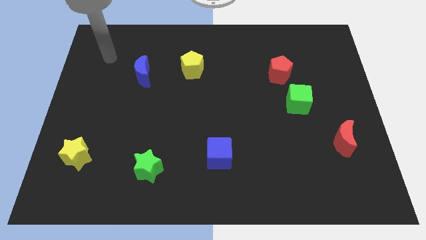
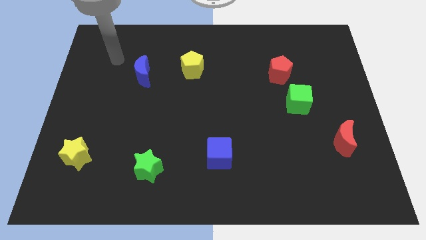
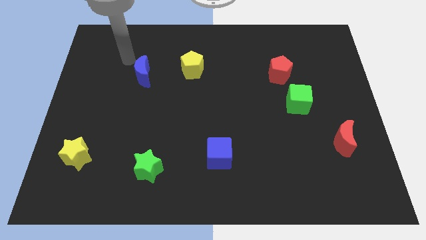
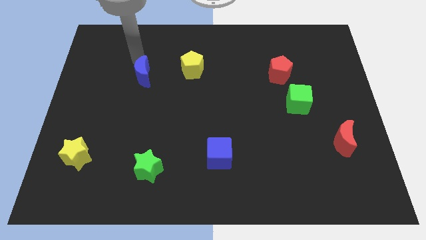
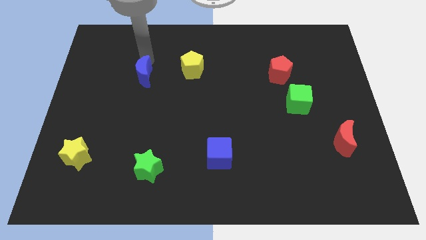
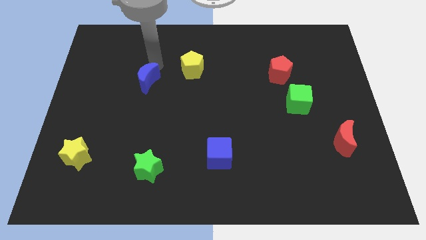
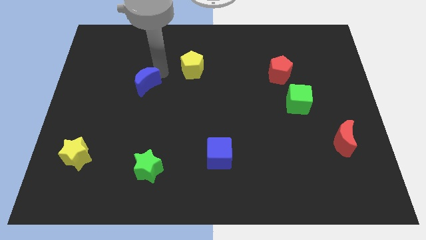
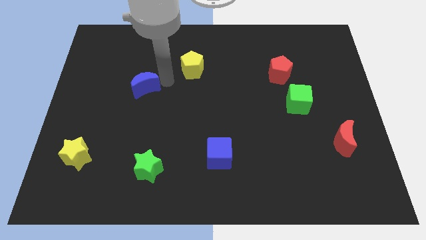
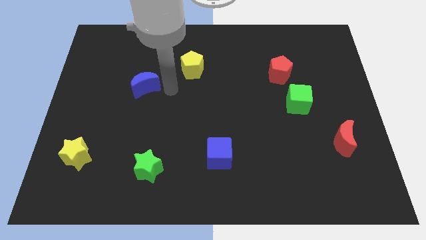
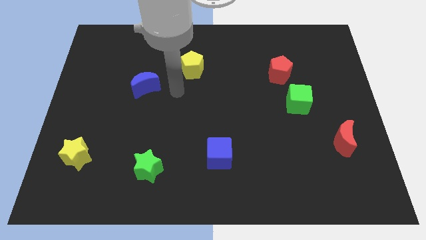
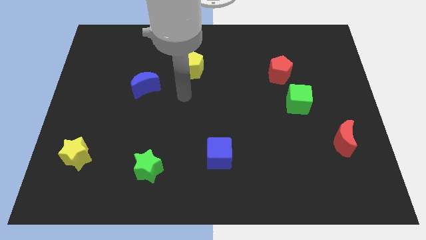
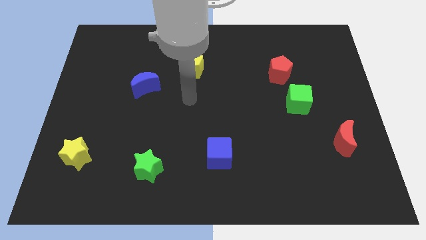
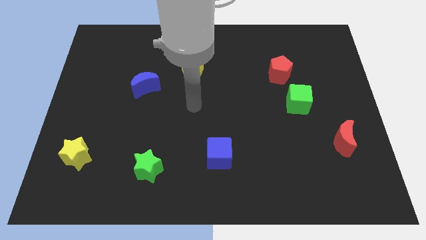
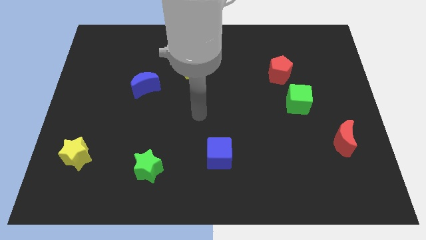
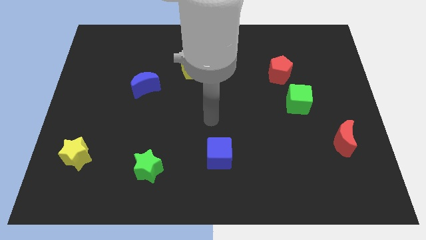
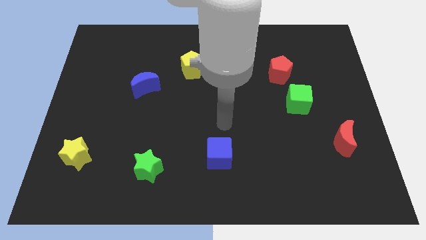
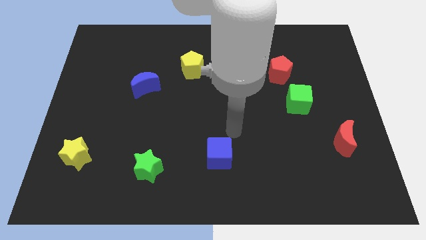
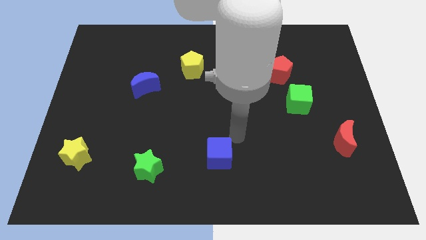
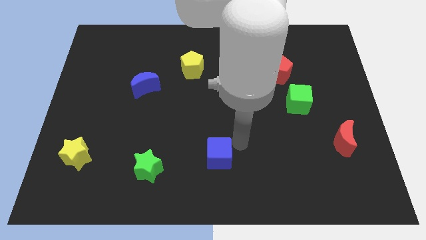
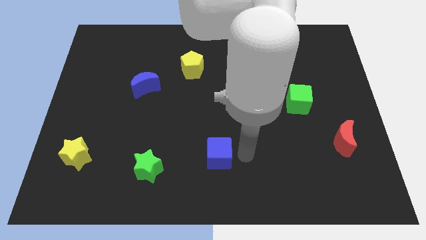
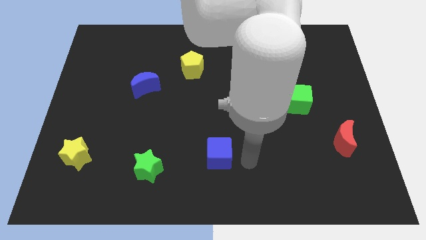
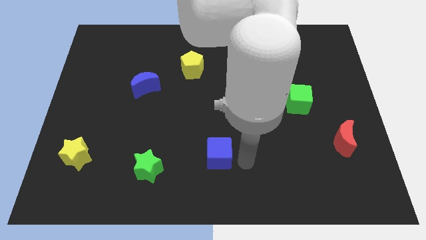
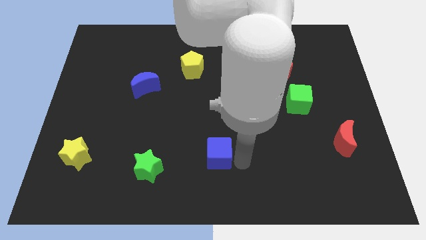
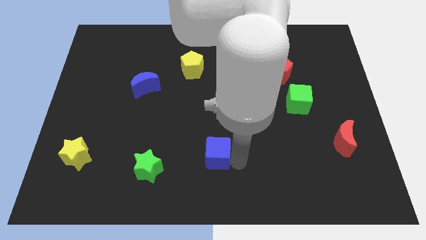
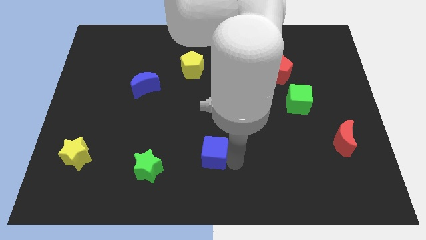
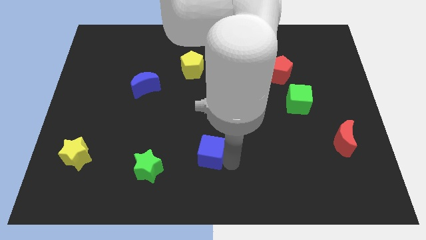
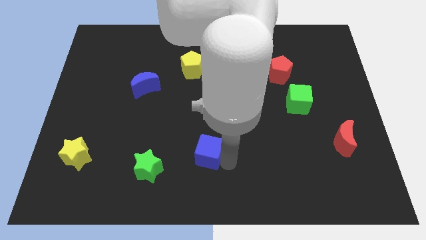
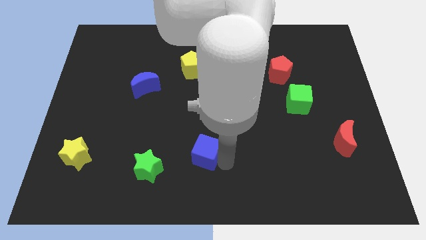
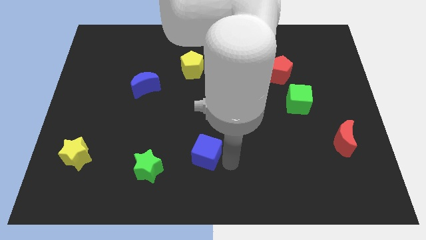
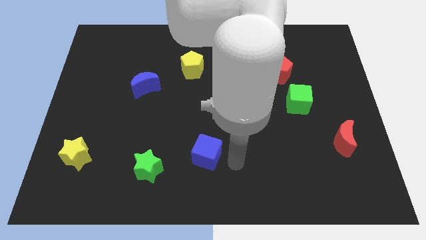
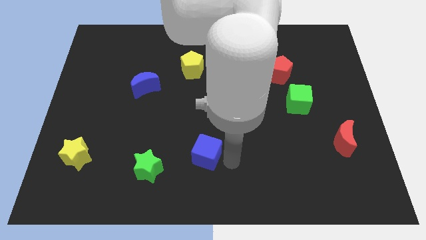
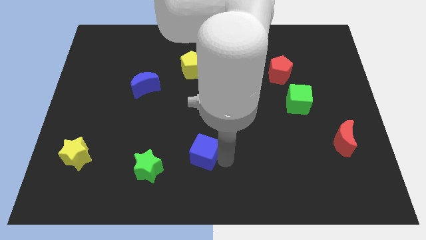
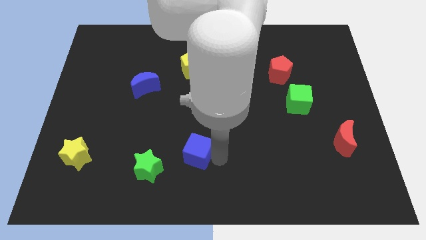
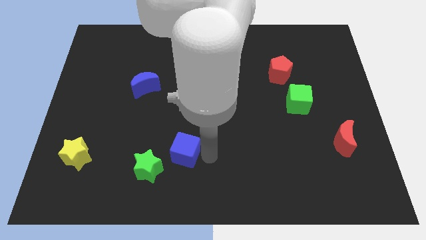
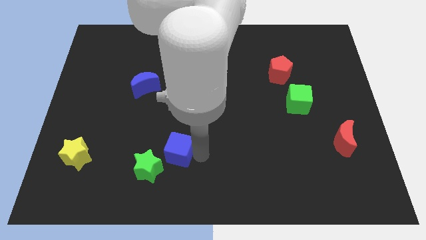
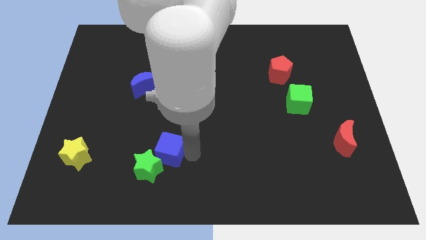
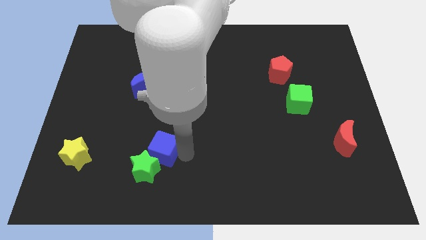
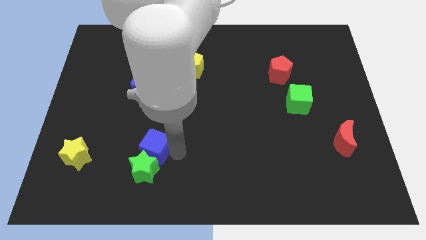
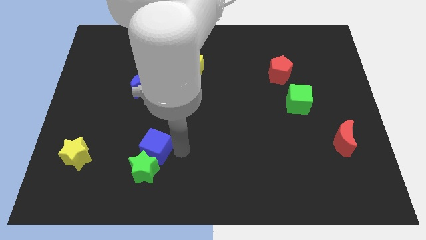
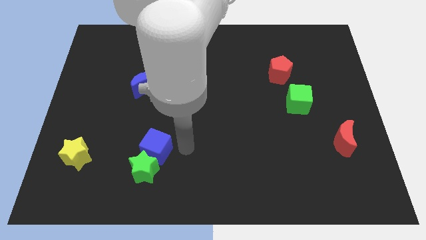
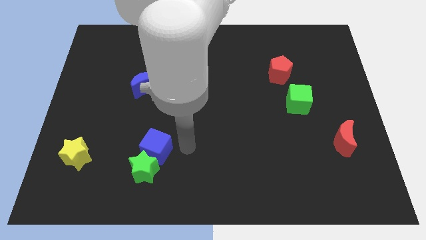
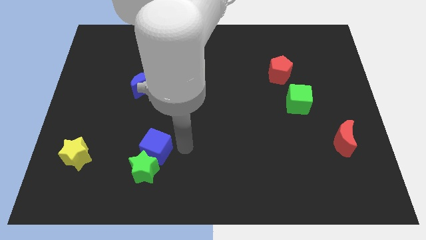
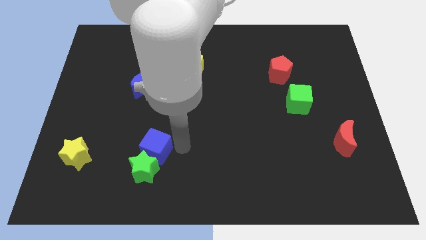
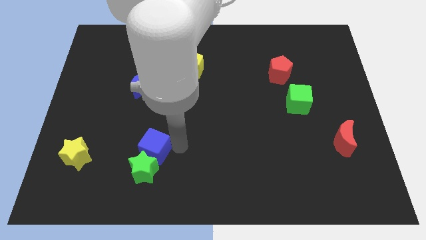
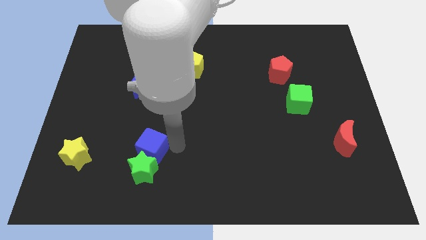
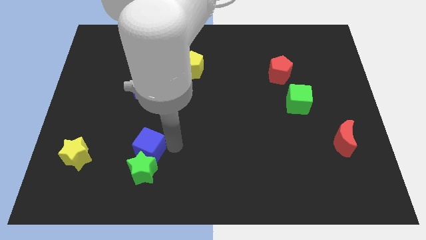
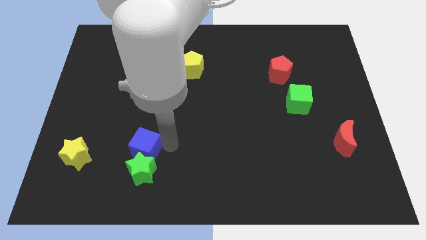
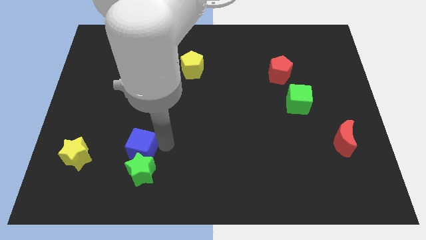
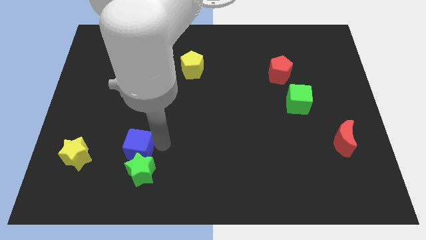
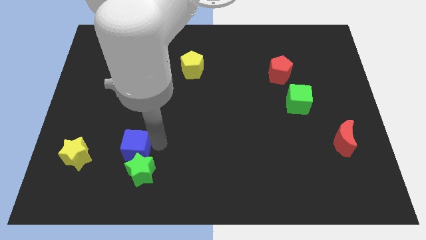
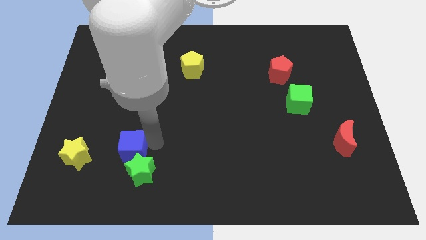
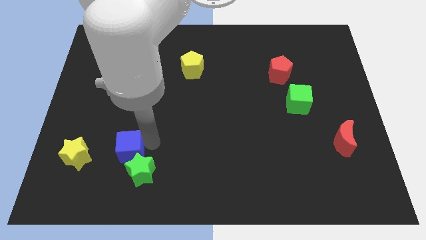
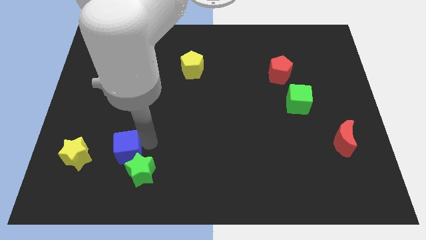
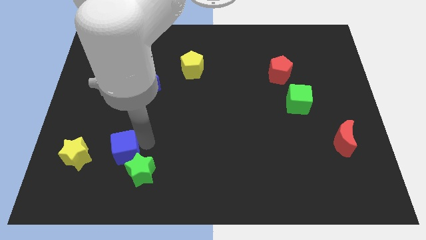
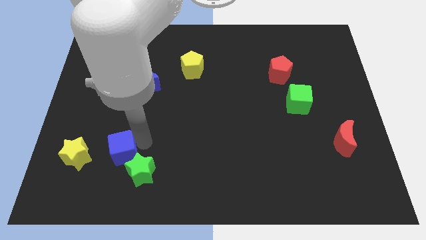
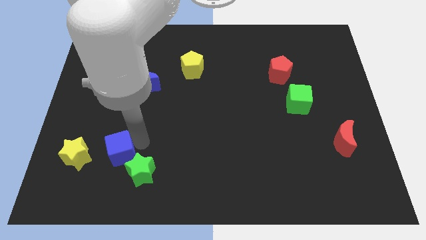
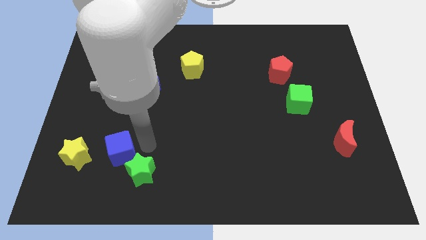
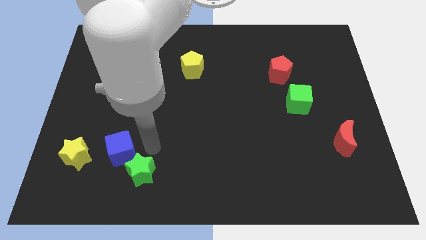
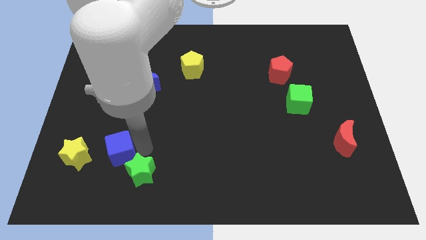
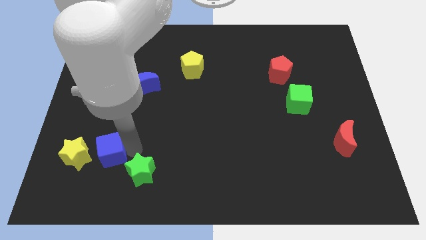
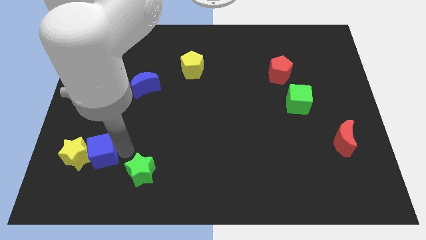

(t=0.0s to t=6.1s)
move the blue cube to the yellow star

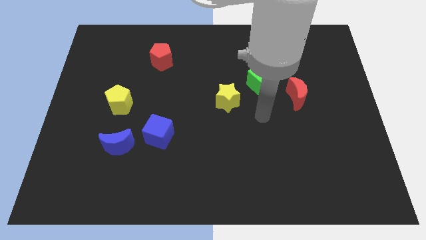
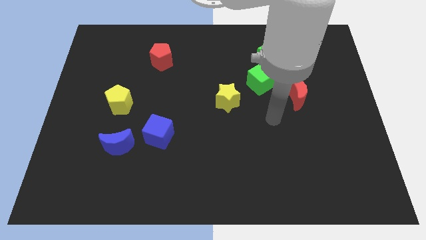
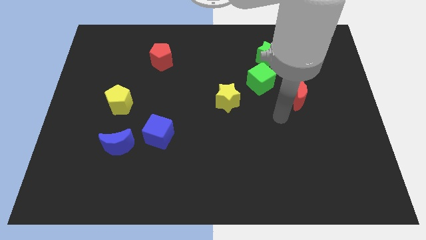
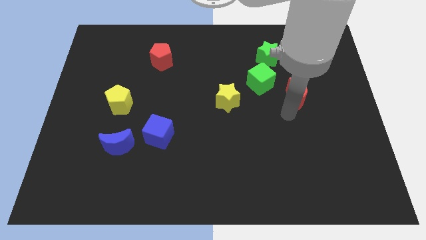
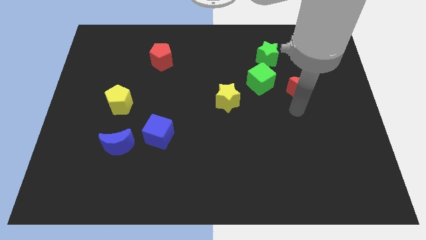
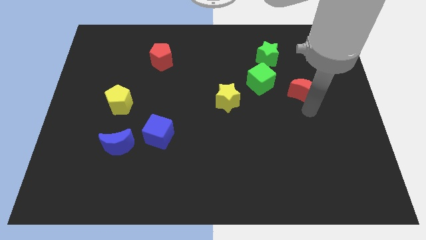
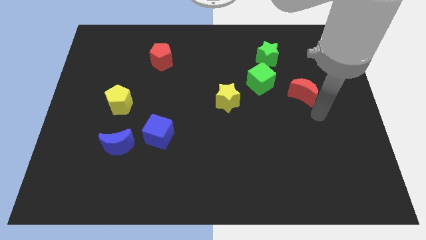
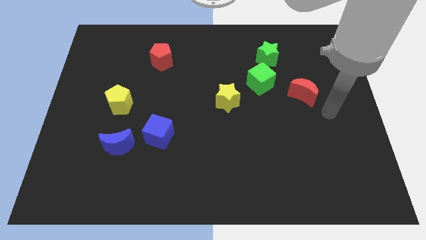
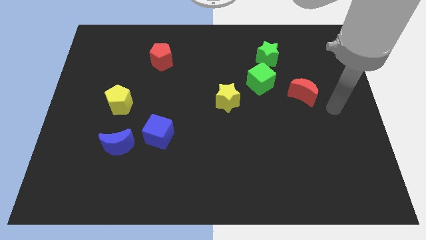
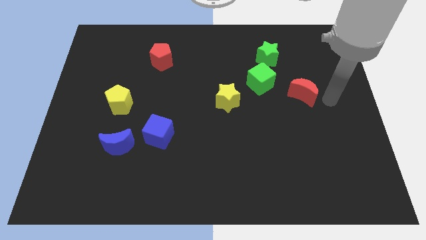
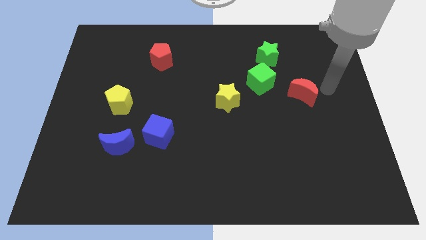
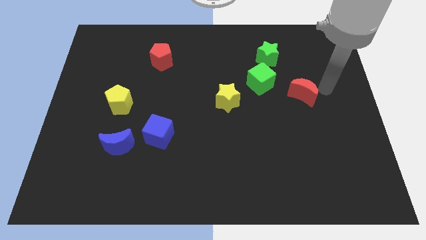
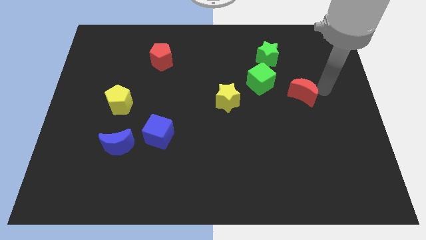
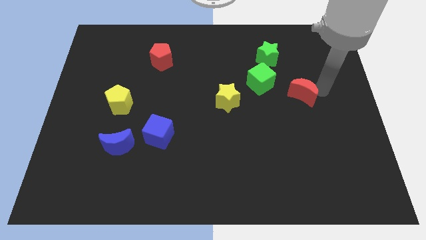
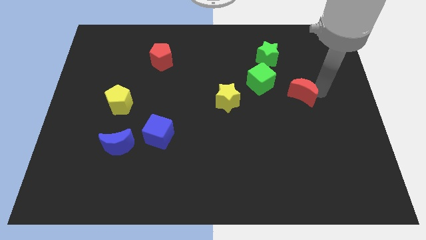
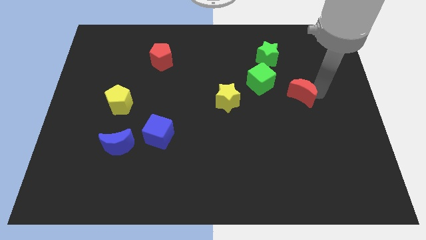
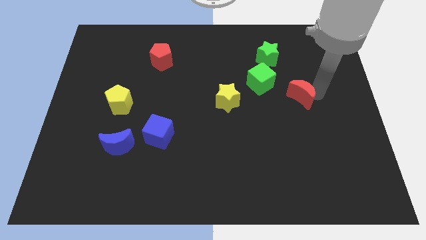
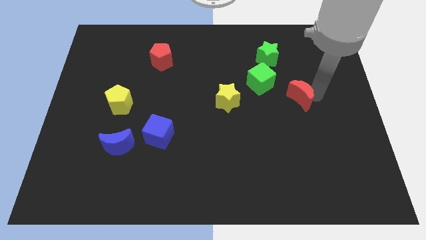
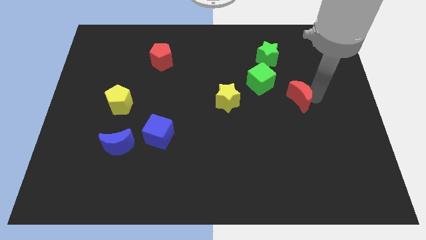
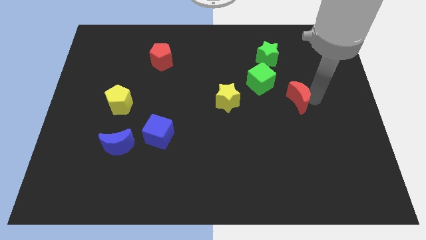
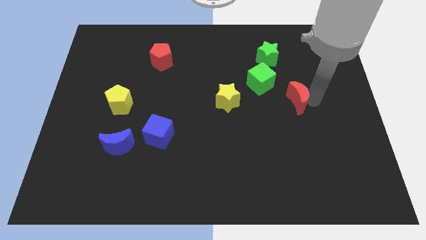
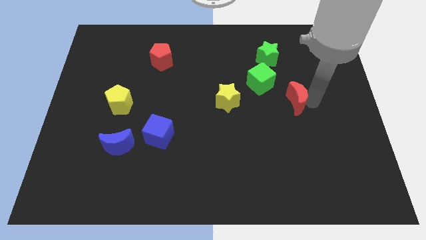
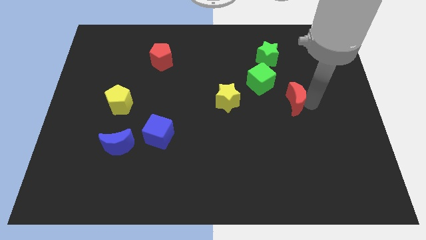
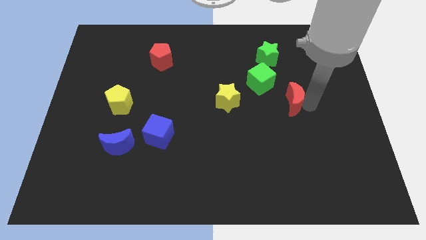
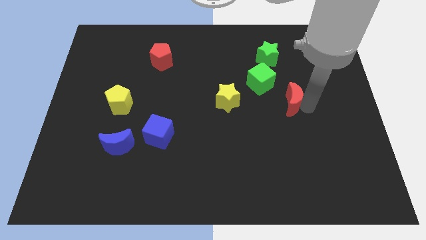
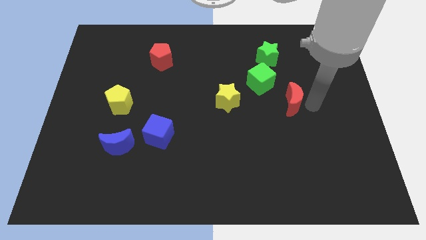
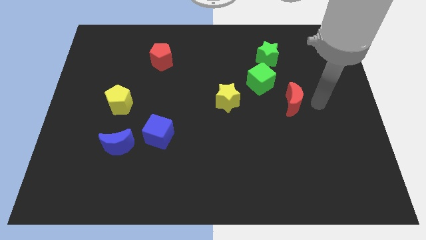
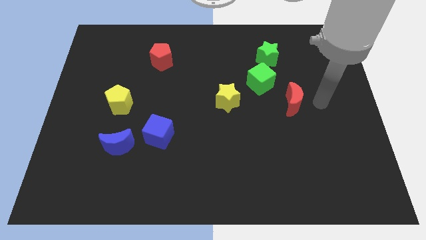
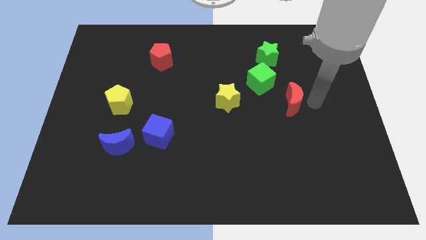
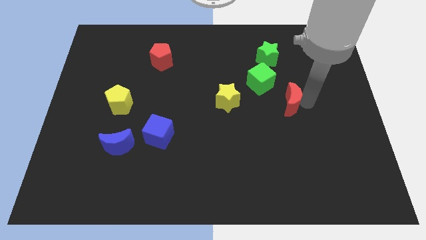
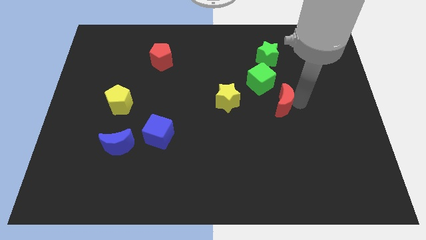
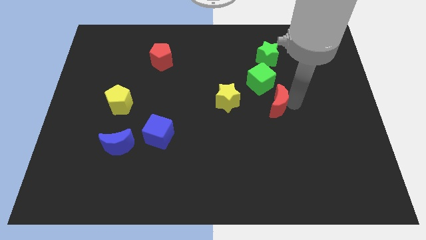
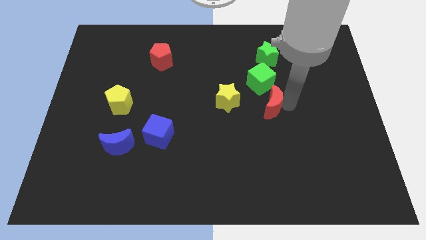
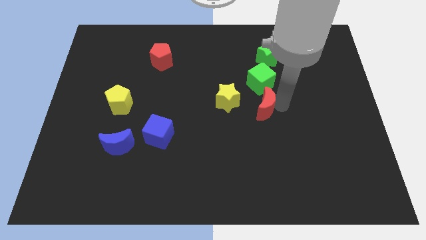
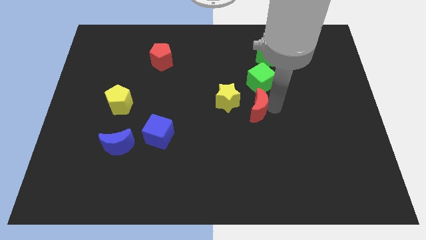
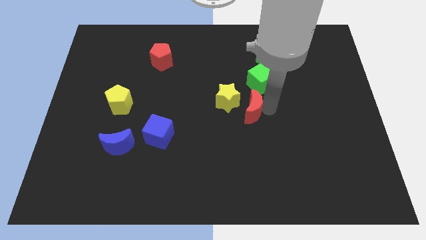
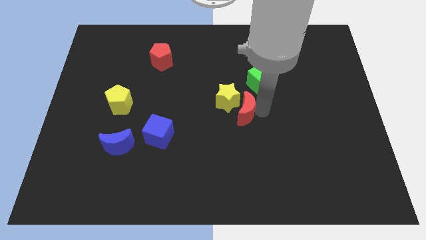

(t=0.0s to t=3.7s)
put the red moon next to the yellow star
